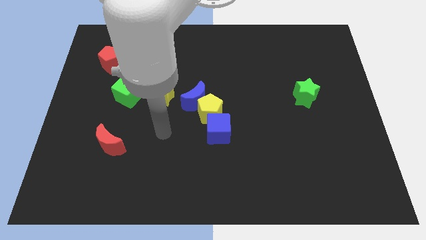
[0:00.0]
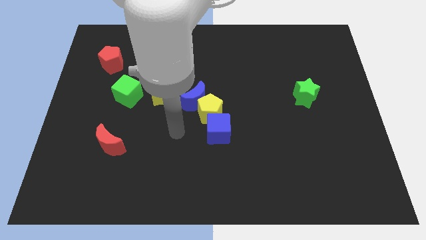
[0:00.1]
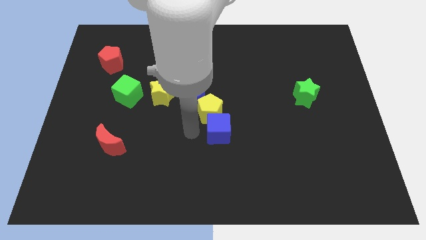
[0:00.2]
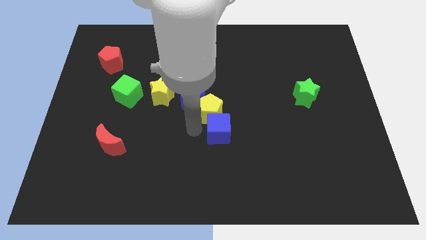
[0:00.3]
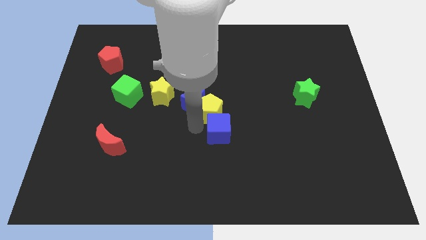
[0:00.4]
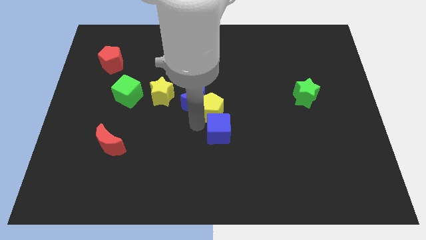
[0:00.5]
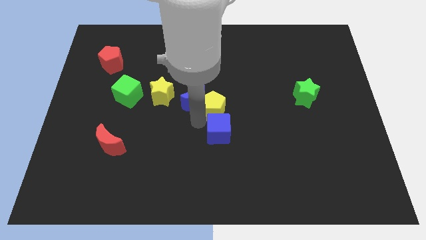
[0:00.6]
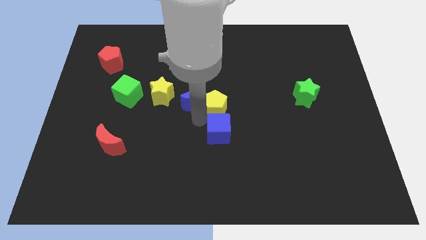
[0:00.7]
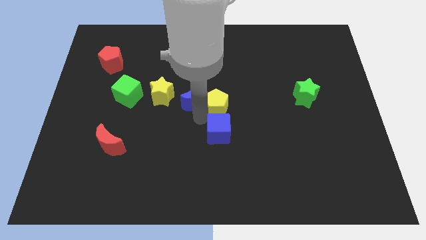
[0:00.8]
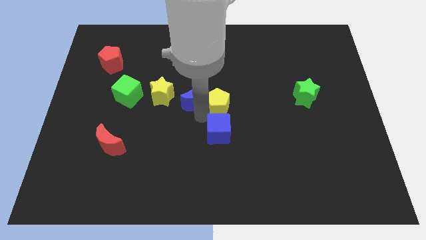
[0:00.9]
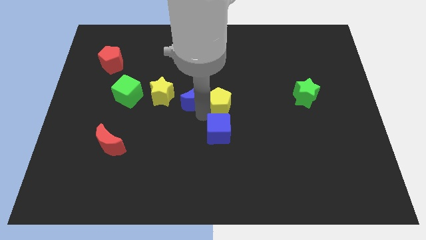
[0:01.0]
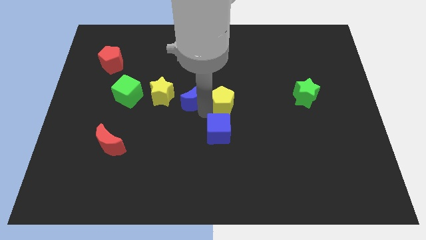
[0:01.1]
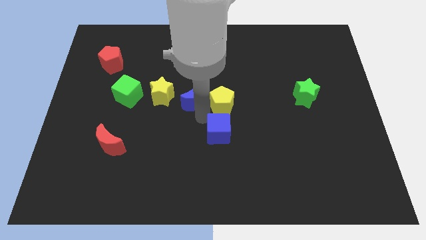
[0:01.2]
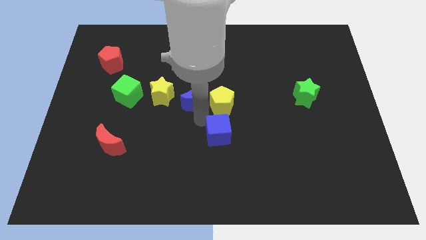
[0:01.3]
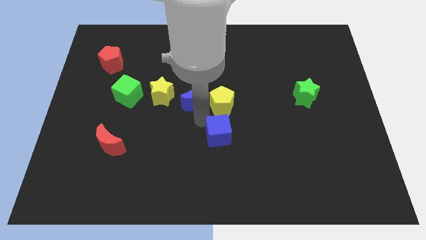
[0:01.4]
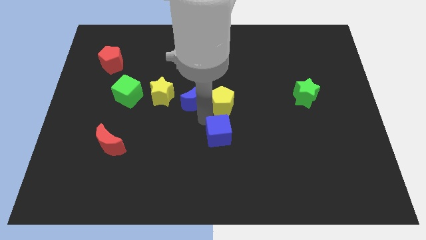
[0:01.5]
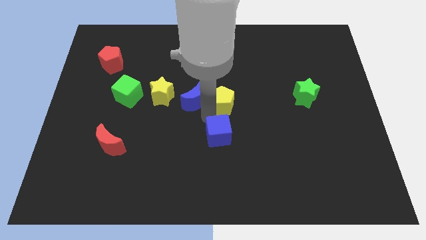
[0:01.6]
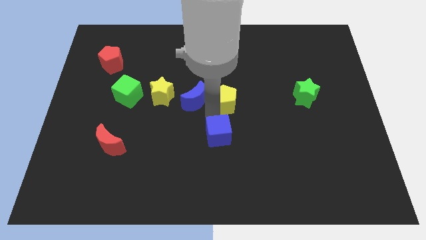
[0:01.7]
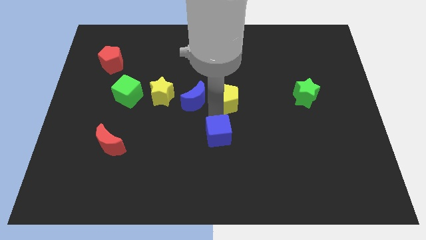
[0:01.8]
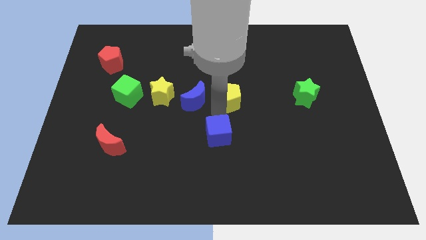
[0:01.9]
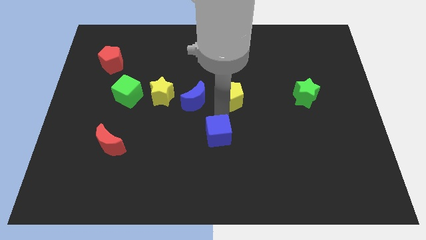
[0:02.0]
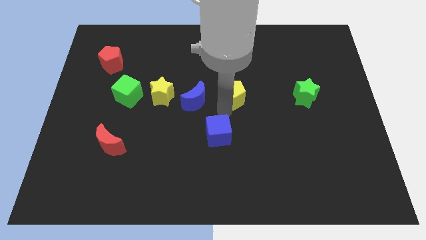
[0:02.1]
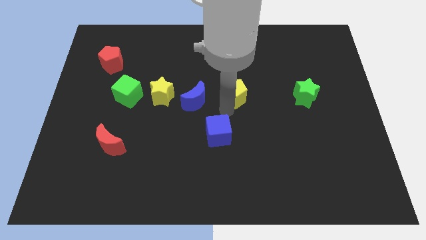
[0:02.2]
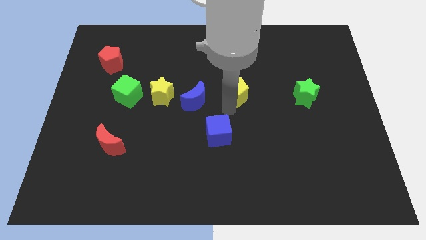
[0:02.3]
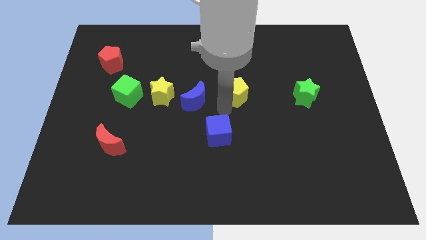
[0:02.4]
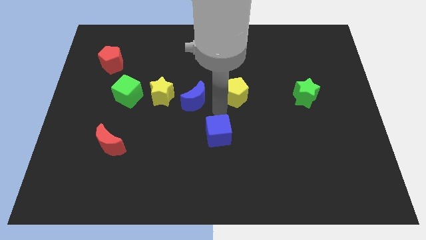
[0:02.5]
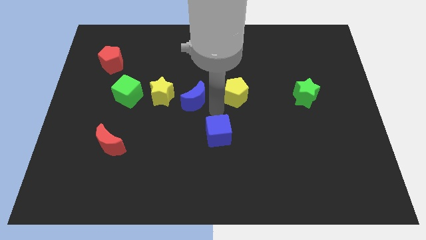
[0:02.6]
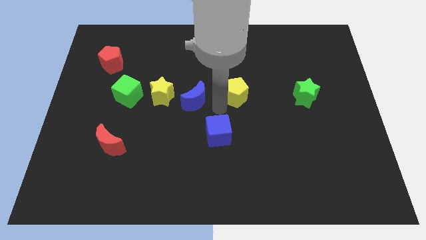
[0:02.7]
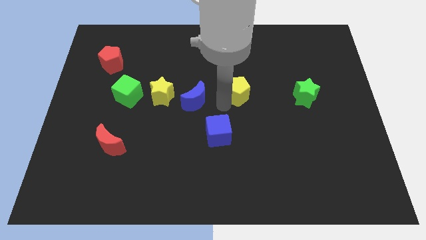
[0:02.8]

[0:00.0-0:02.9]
pull the yellow pentagon apart from the blue moon and blue cube

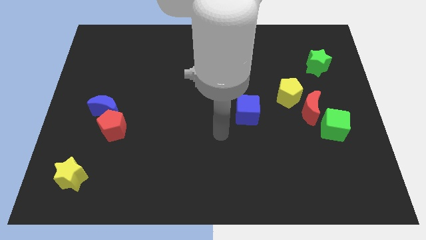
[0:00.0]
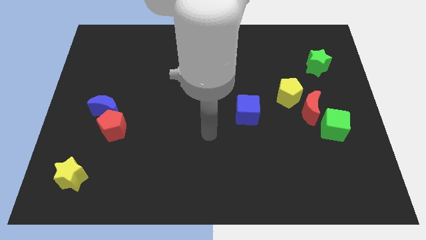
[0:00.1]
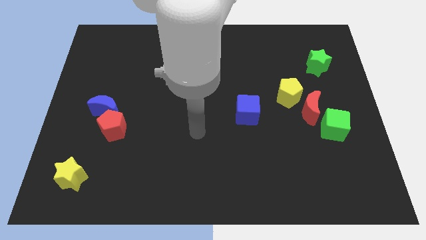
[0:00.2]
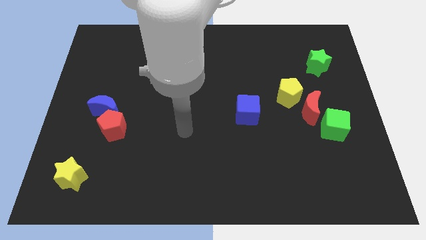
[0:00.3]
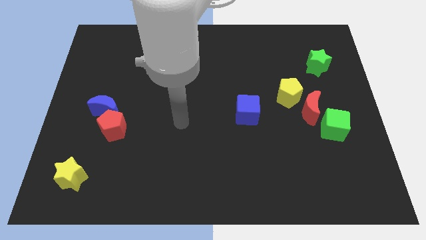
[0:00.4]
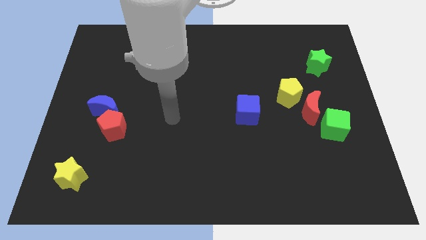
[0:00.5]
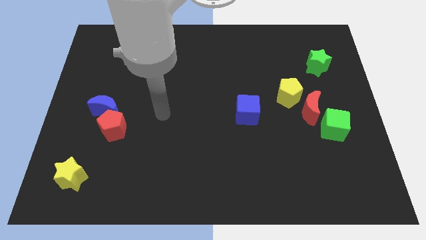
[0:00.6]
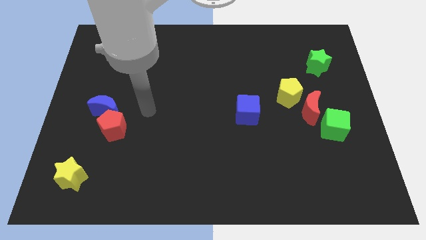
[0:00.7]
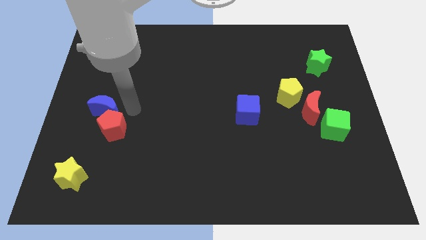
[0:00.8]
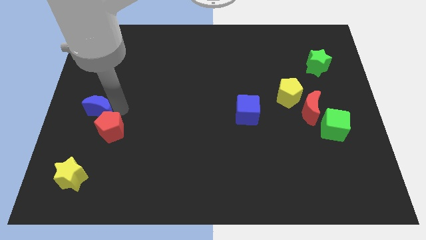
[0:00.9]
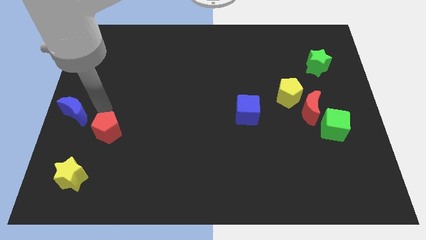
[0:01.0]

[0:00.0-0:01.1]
pull the red pentagon apart from the blue moon

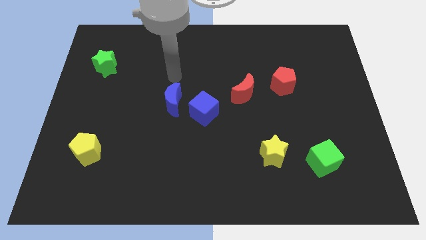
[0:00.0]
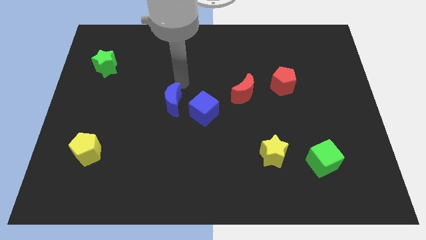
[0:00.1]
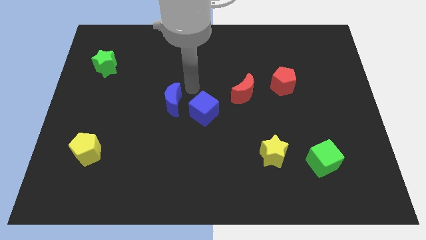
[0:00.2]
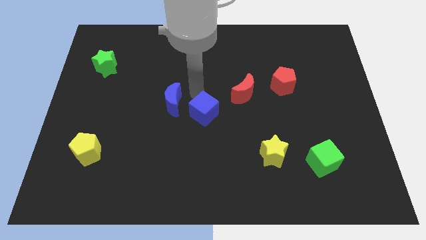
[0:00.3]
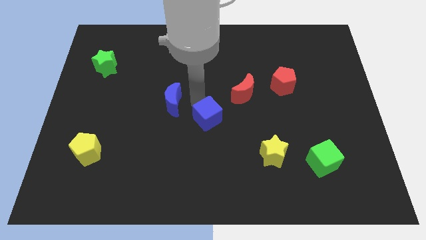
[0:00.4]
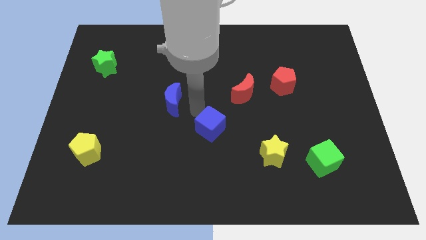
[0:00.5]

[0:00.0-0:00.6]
move the blue moon away from the blue cube

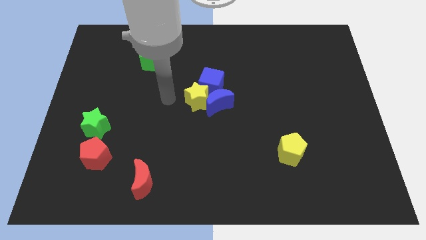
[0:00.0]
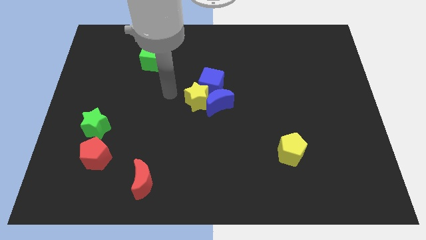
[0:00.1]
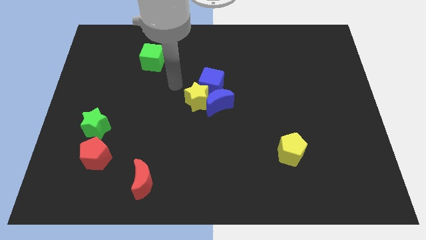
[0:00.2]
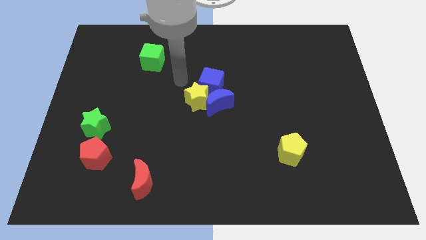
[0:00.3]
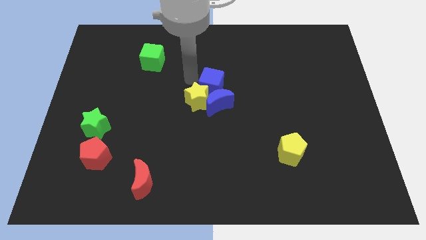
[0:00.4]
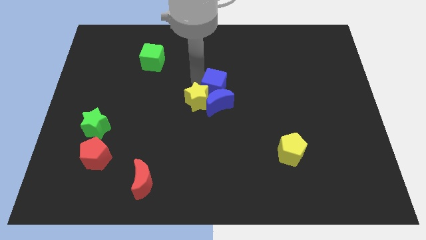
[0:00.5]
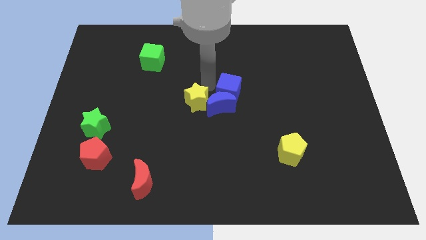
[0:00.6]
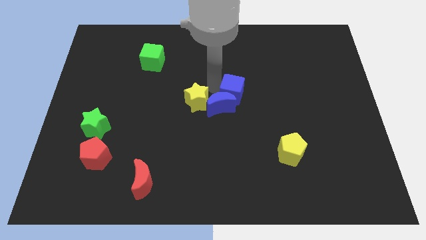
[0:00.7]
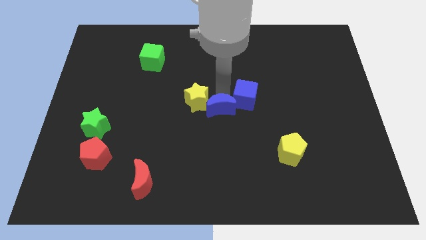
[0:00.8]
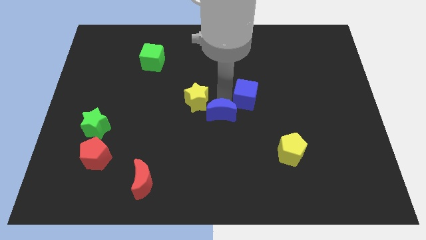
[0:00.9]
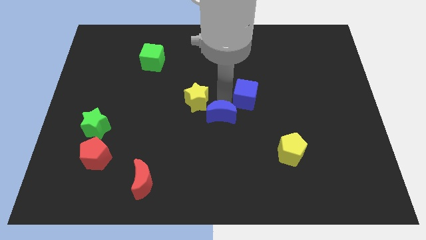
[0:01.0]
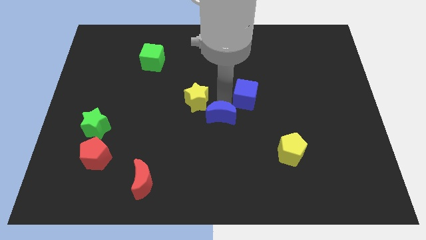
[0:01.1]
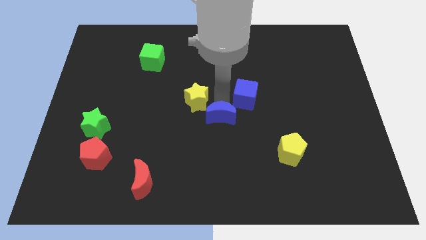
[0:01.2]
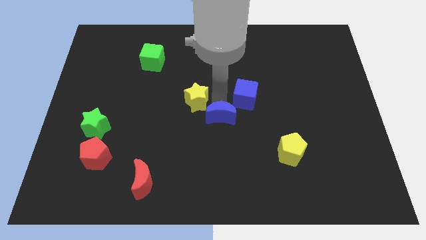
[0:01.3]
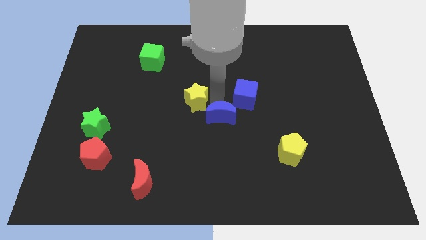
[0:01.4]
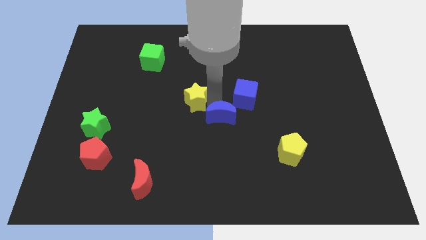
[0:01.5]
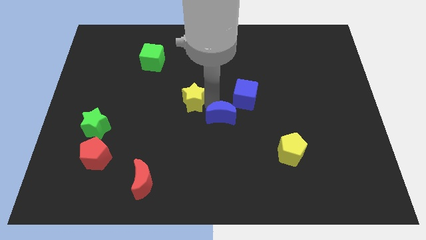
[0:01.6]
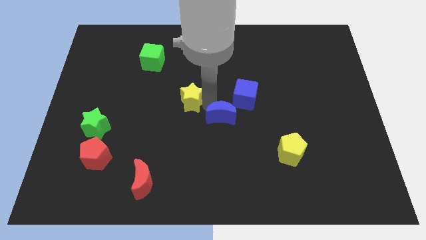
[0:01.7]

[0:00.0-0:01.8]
move the yellow star away from the blue moon and blue cube

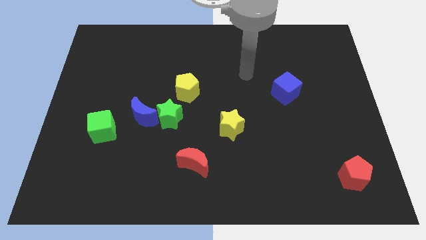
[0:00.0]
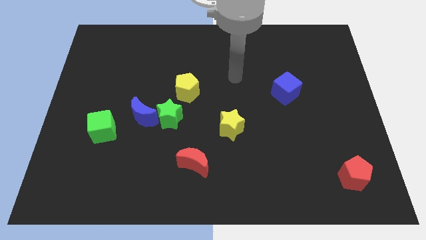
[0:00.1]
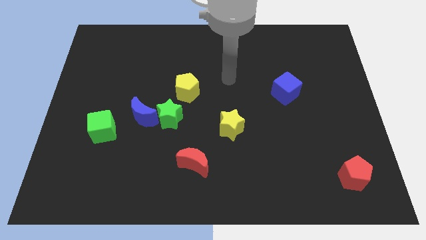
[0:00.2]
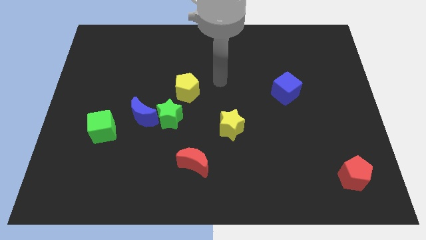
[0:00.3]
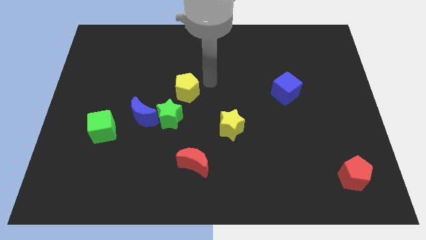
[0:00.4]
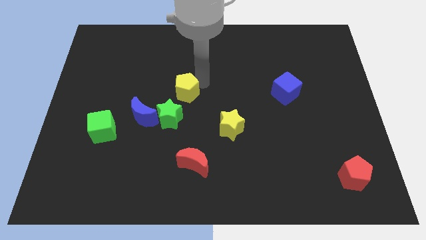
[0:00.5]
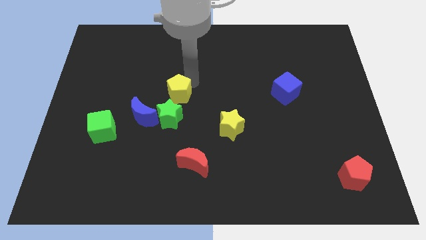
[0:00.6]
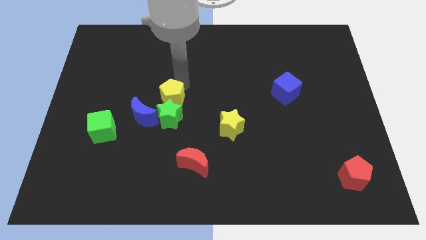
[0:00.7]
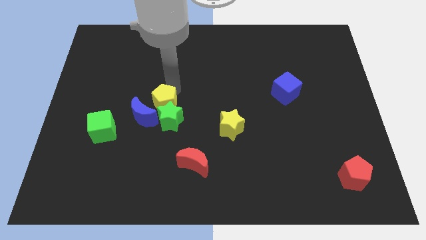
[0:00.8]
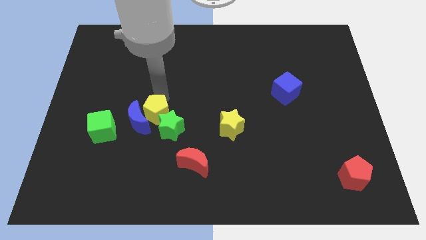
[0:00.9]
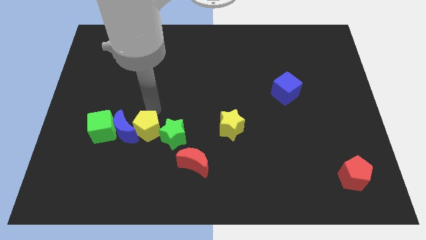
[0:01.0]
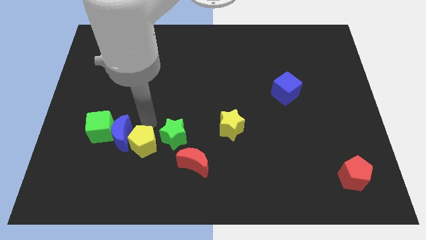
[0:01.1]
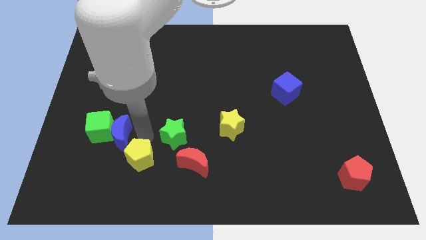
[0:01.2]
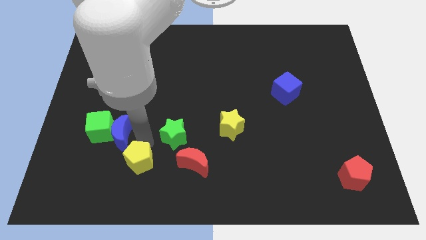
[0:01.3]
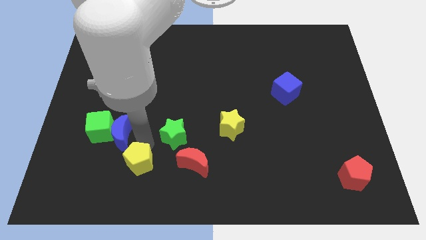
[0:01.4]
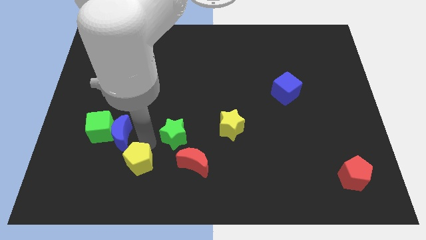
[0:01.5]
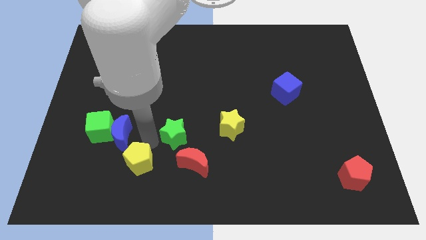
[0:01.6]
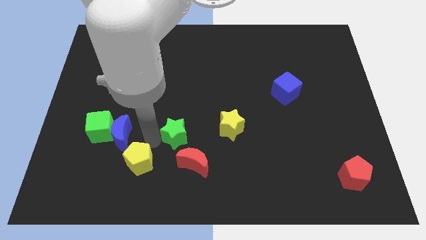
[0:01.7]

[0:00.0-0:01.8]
separate the green star from the blue moon and yellow pentagon

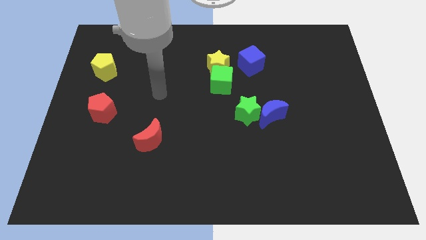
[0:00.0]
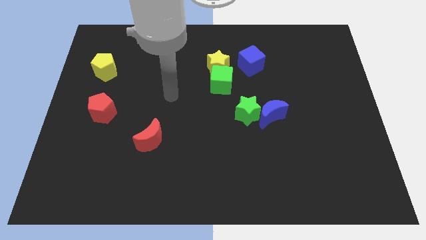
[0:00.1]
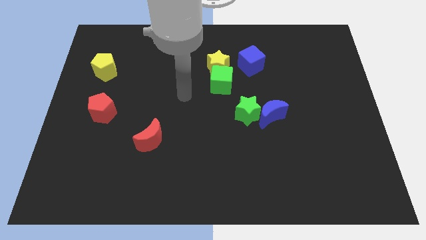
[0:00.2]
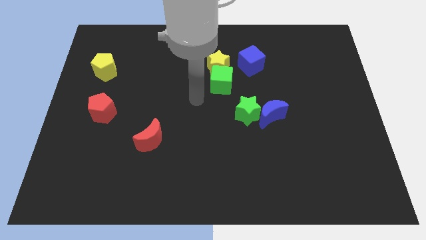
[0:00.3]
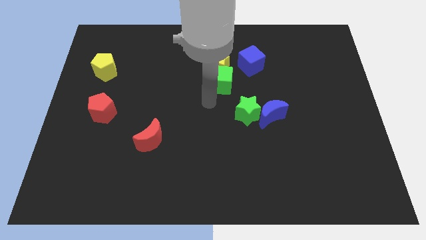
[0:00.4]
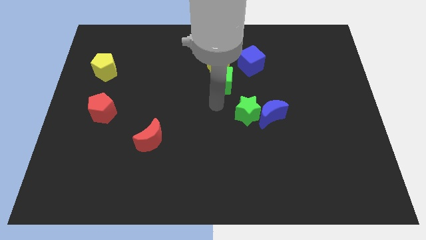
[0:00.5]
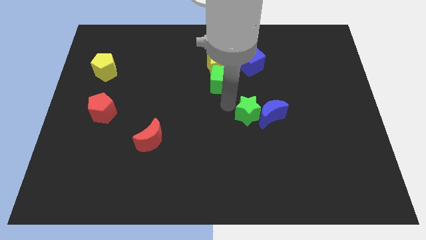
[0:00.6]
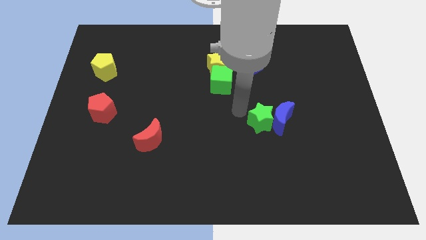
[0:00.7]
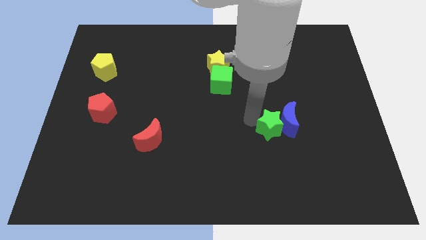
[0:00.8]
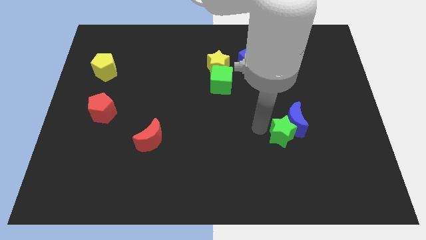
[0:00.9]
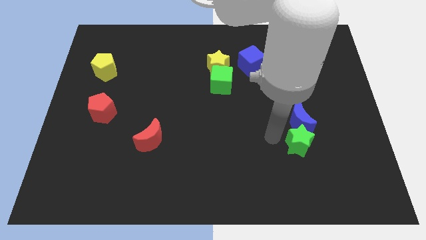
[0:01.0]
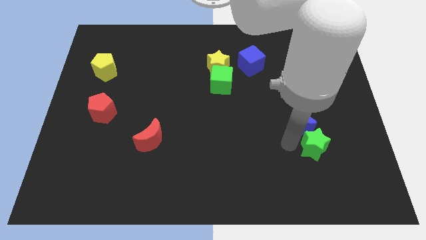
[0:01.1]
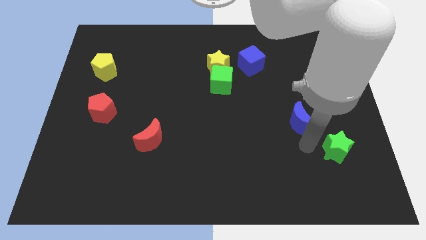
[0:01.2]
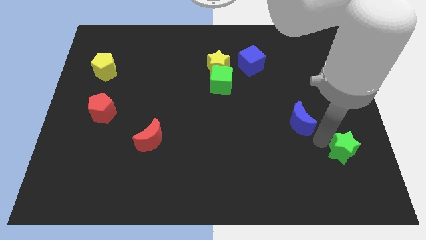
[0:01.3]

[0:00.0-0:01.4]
move the blue moon away from the green star
